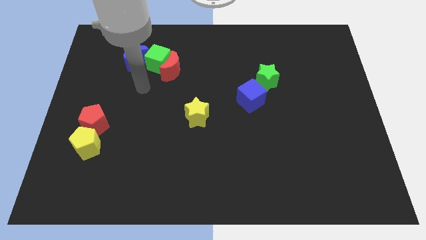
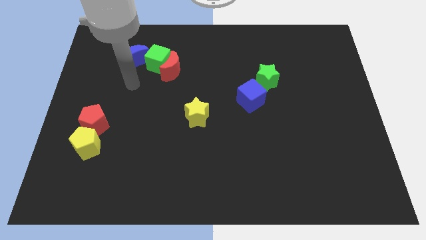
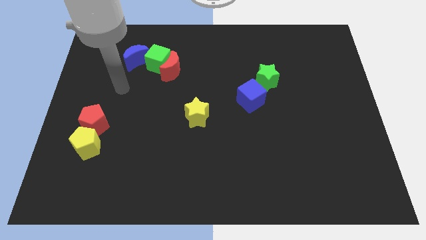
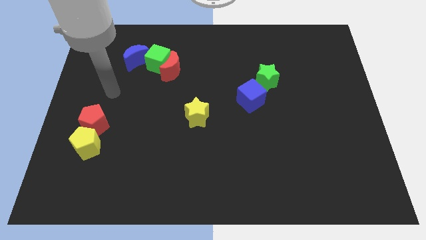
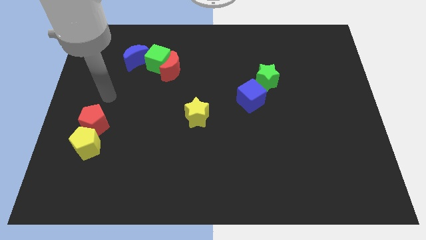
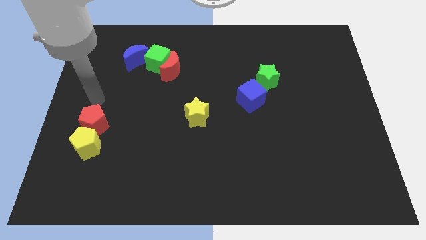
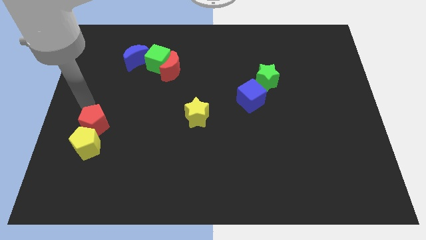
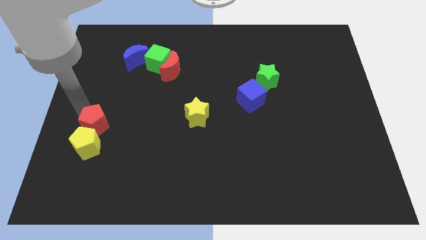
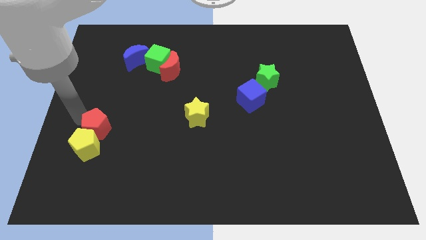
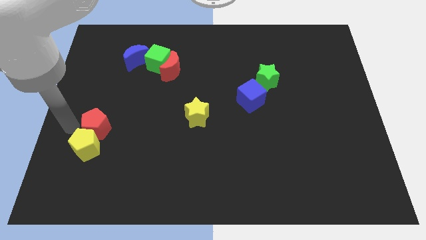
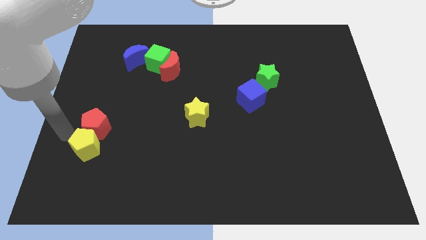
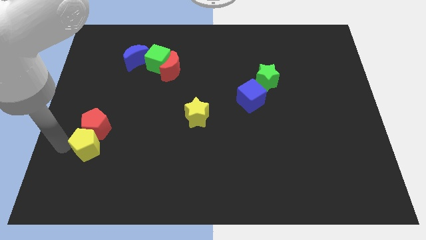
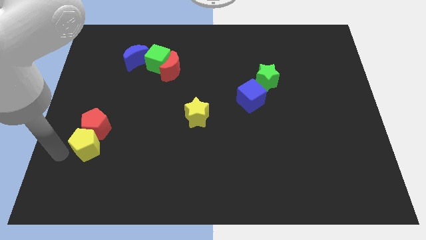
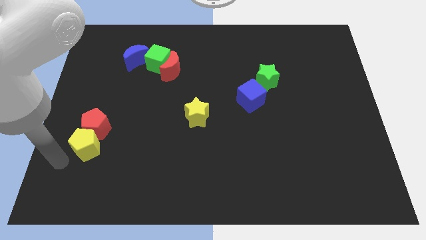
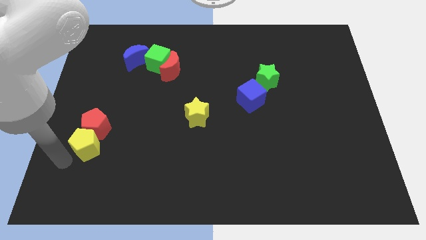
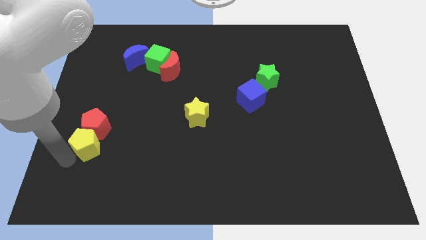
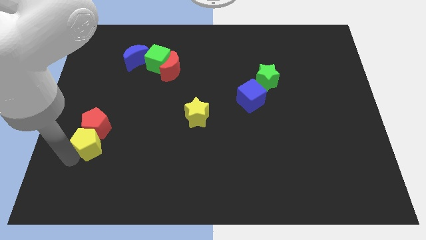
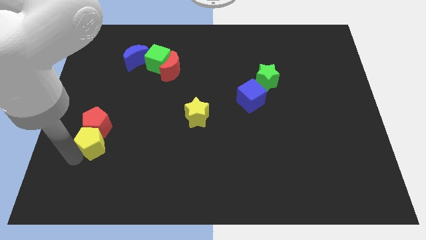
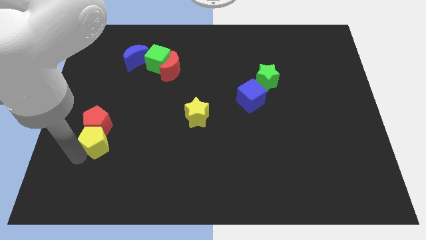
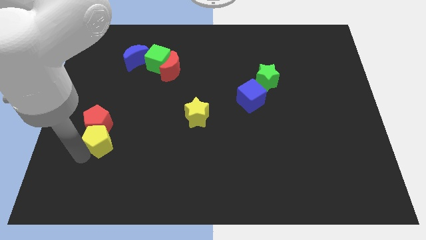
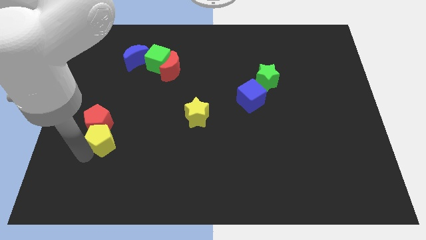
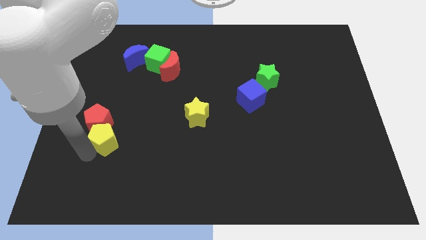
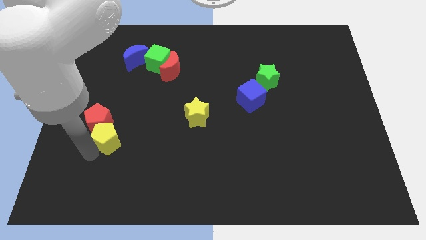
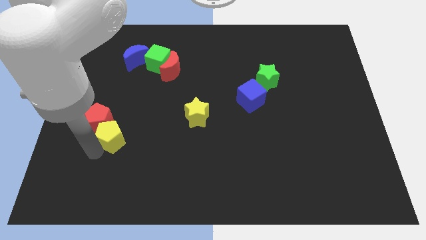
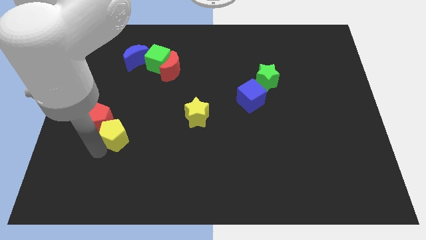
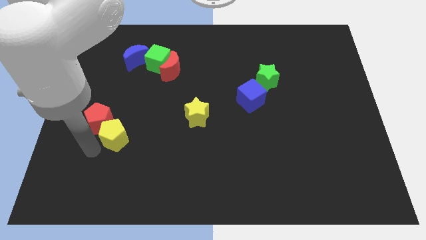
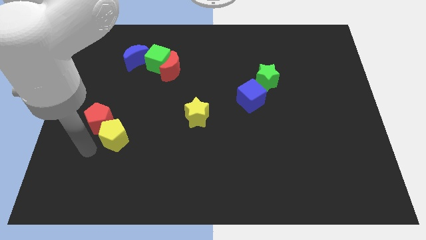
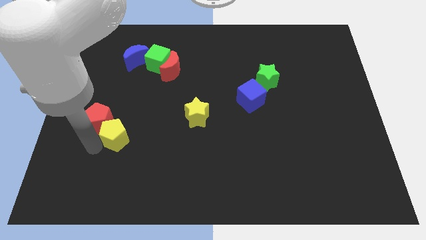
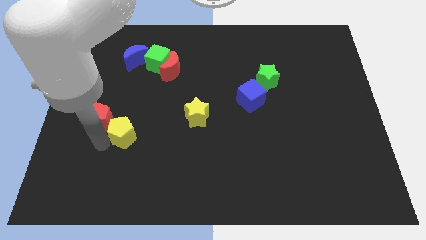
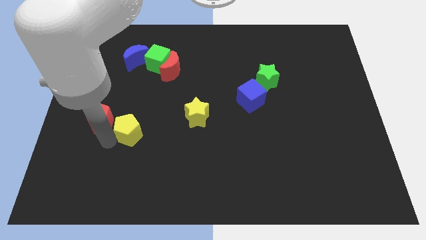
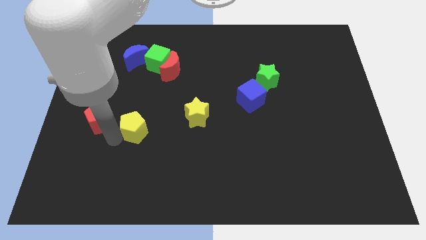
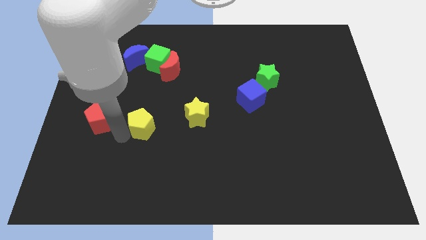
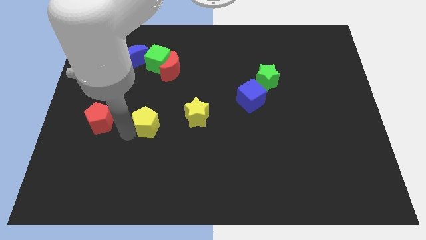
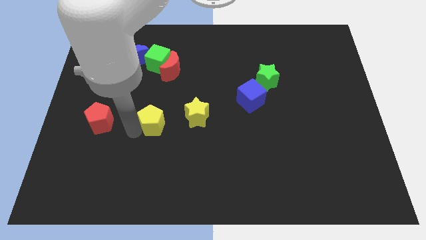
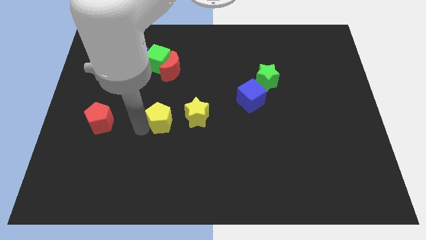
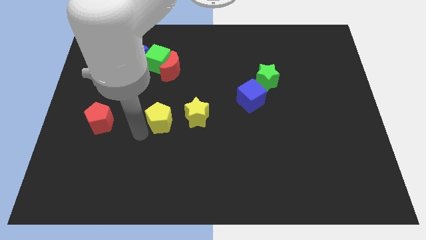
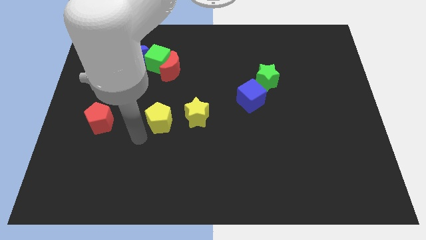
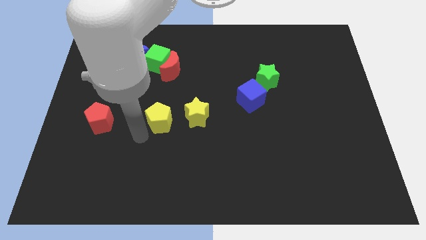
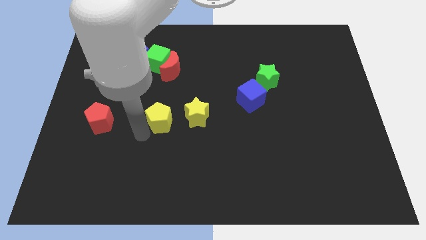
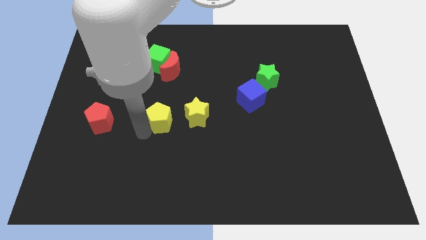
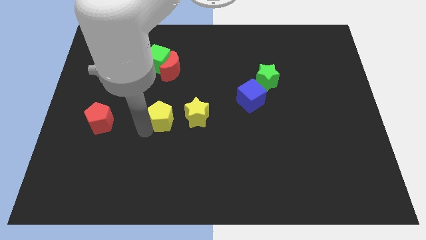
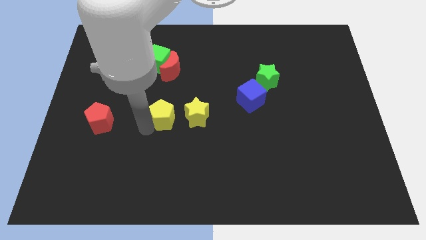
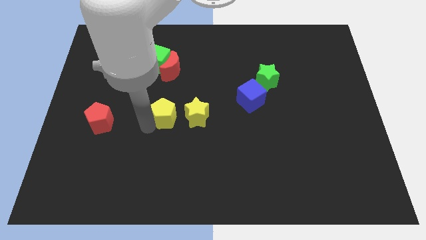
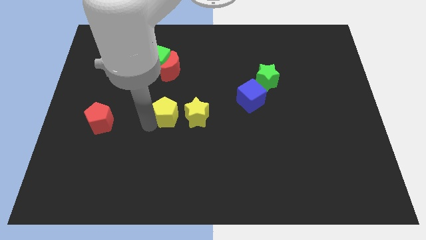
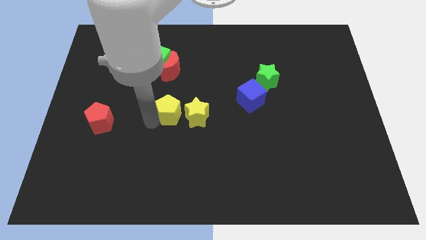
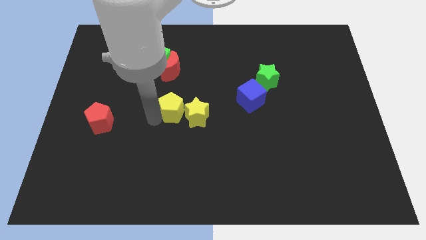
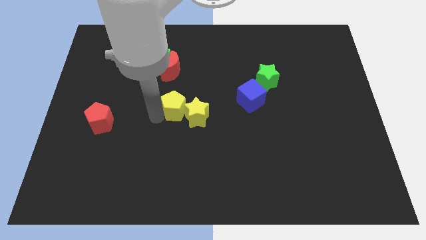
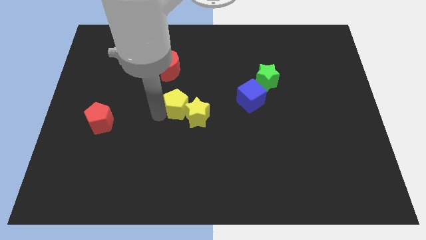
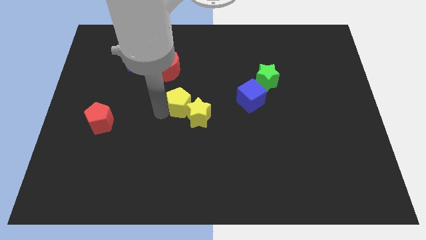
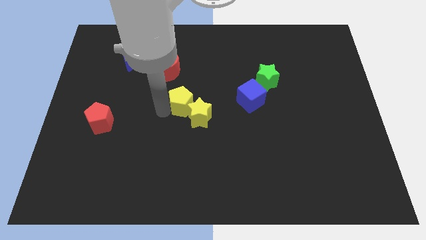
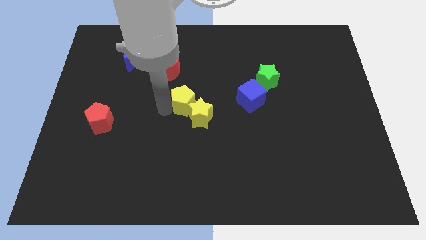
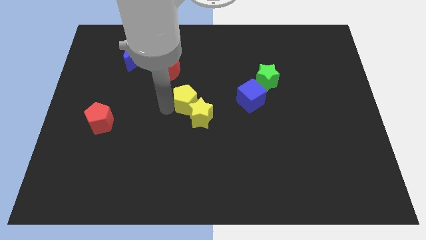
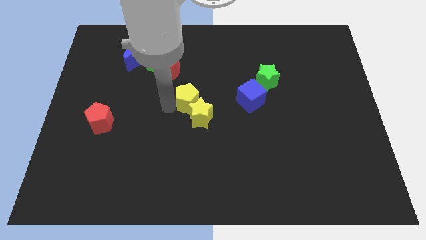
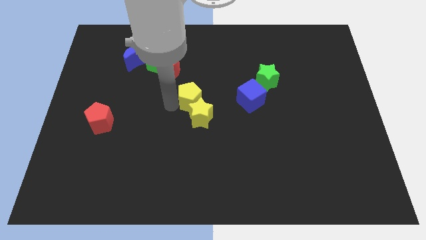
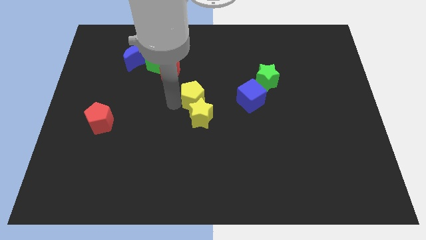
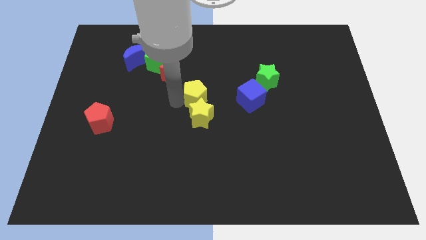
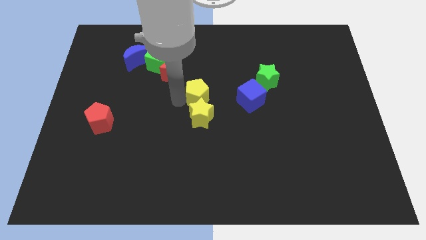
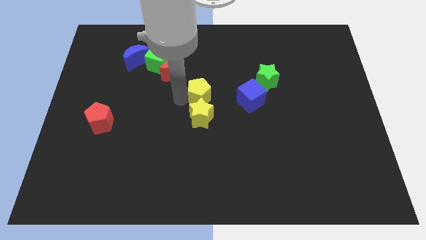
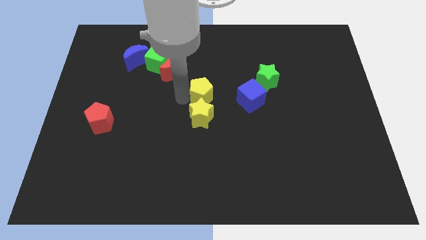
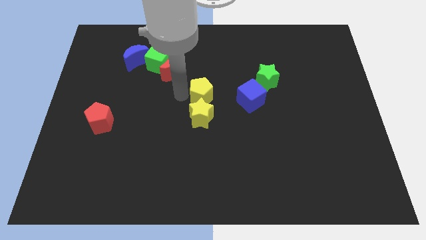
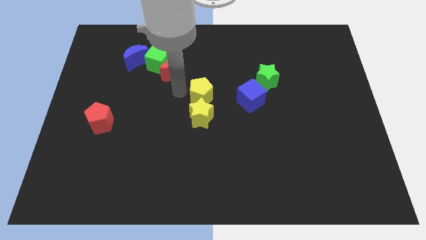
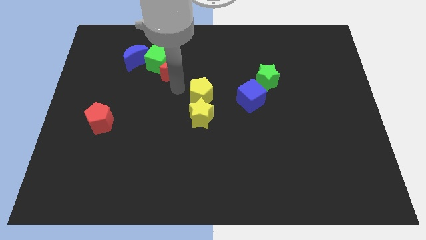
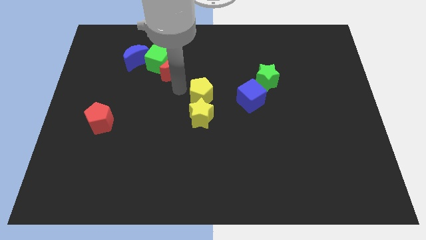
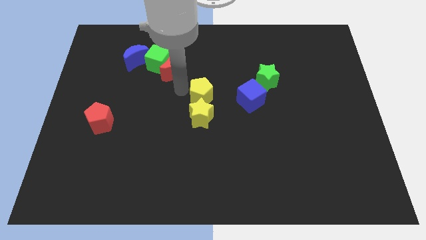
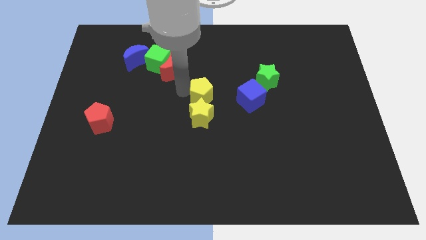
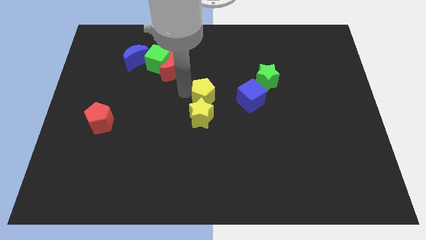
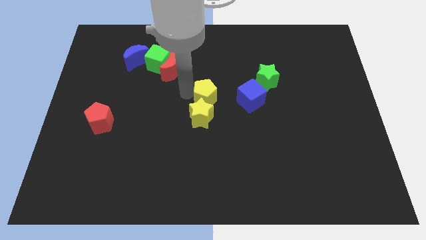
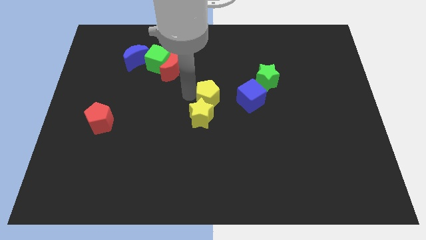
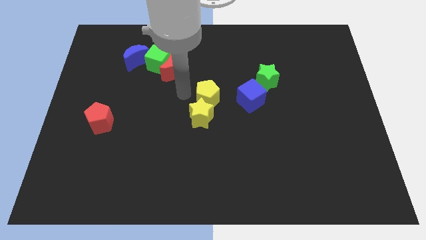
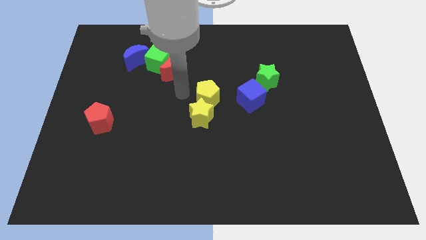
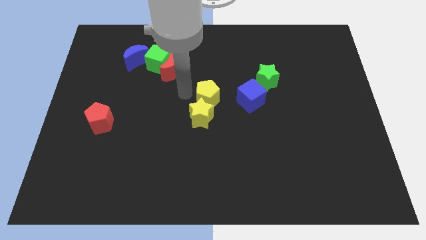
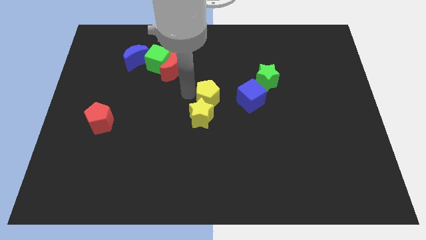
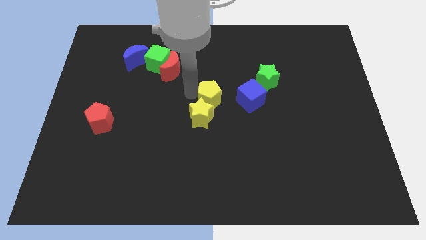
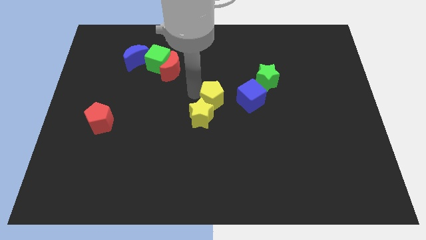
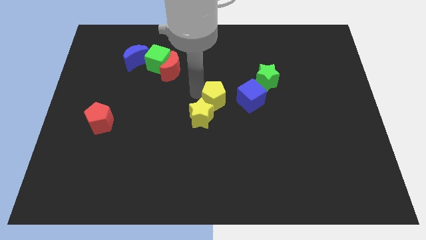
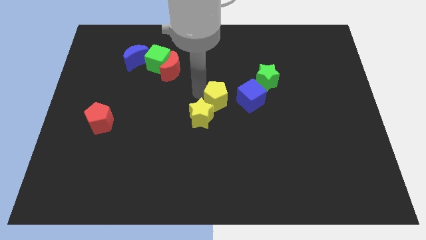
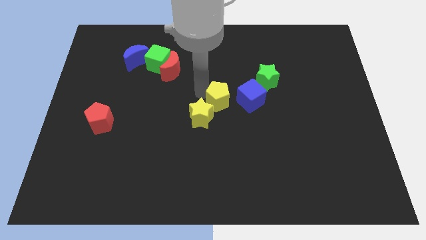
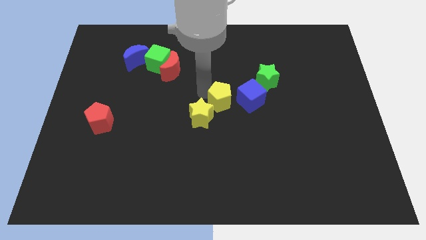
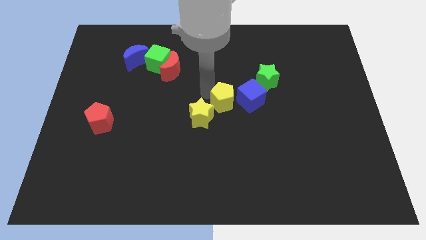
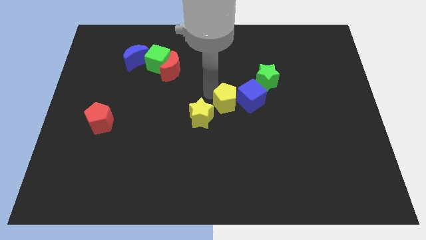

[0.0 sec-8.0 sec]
slide the yellow pentagon next to the blue cube

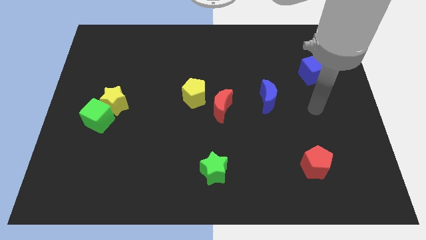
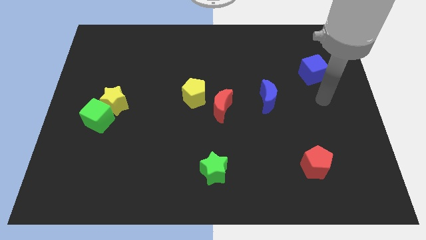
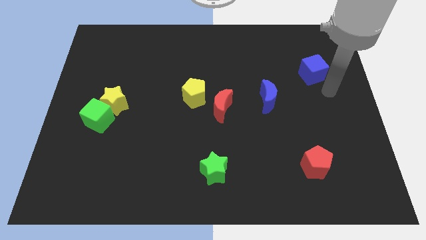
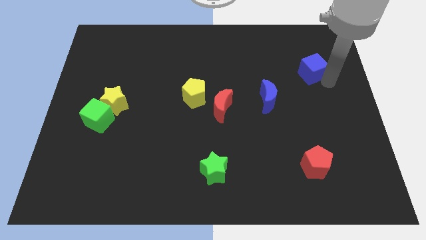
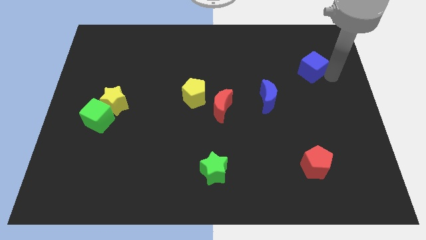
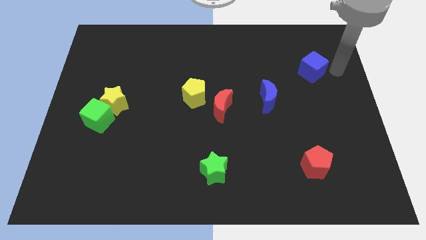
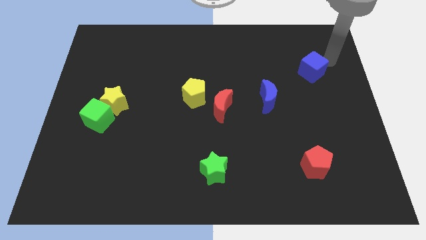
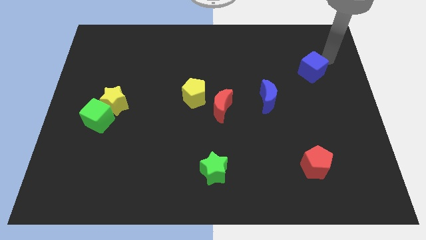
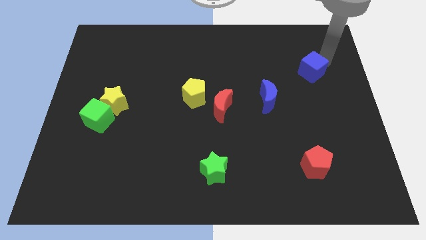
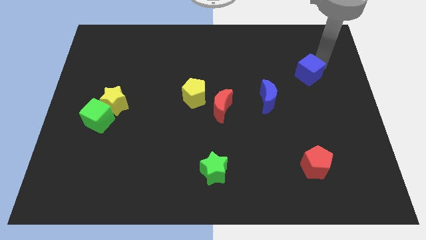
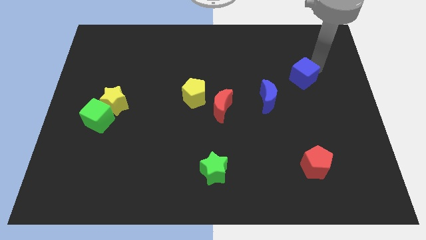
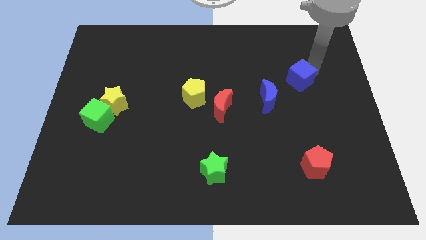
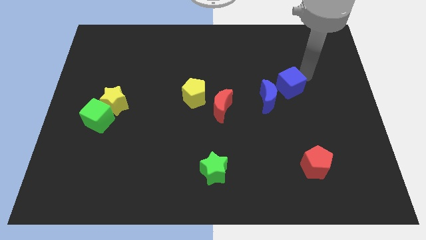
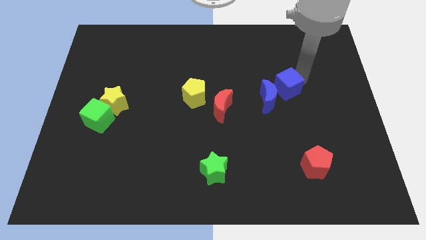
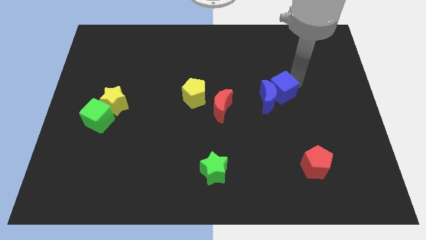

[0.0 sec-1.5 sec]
slide the blue cube towards the blue moon
